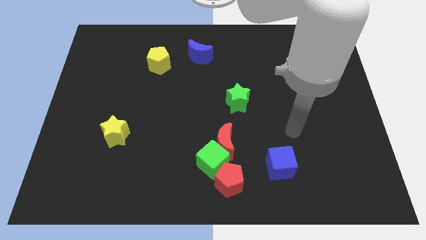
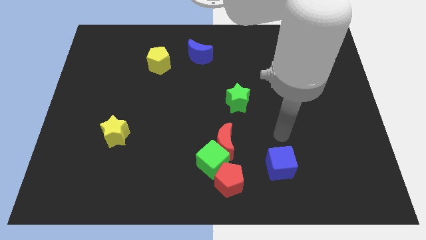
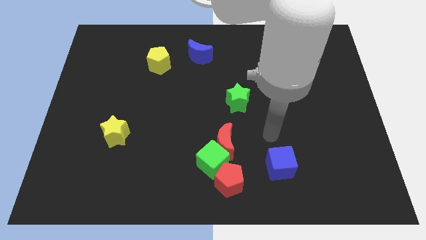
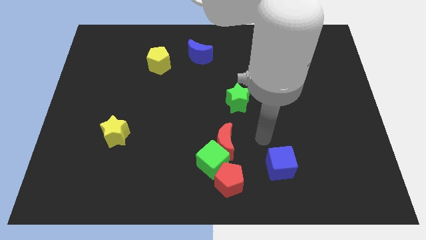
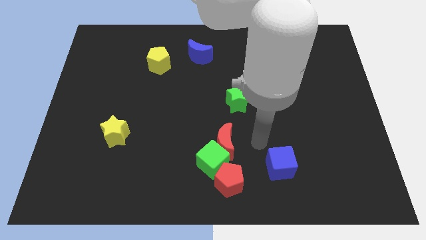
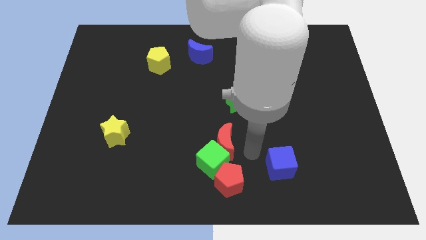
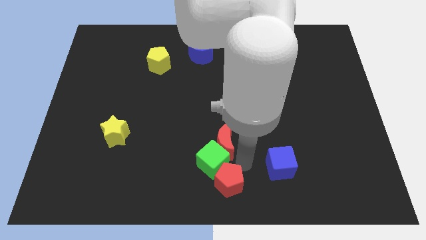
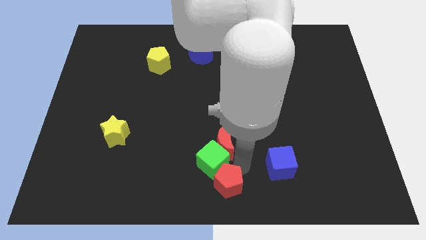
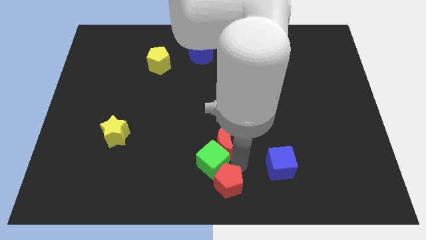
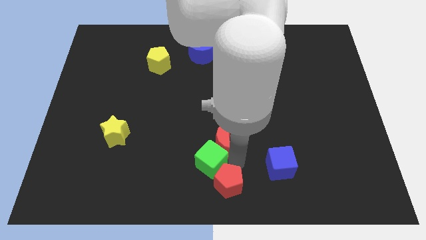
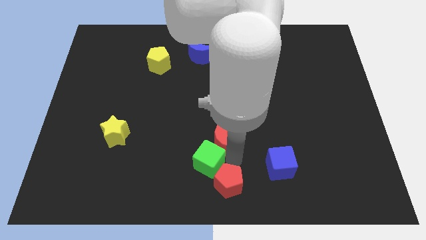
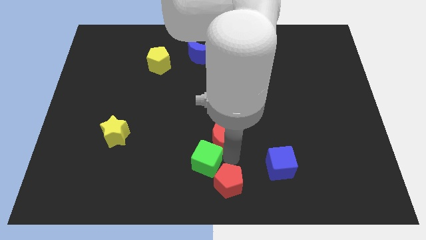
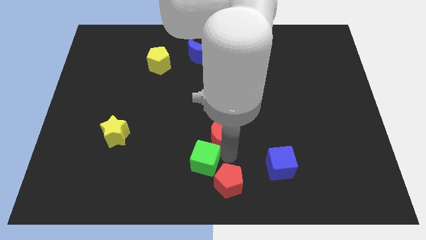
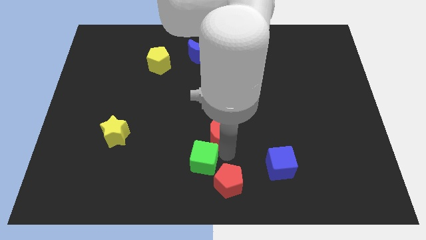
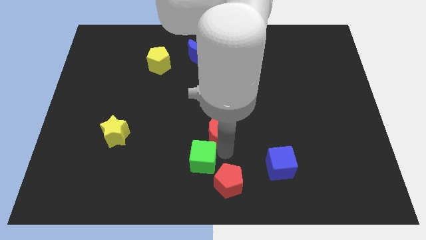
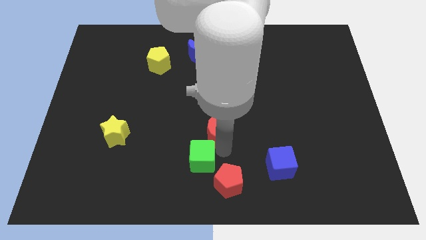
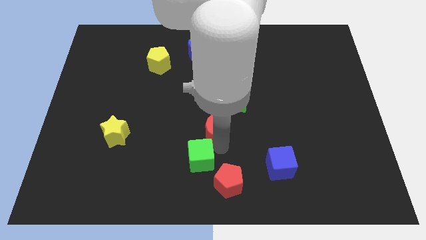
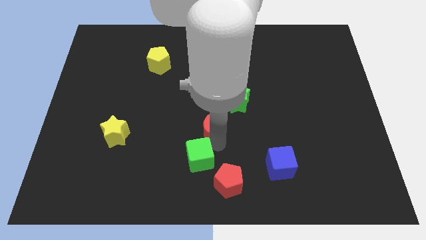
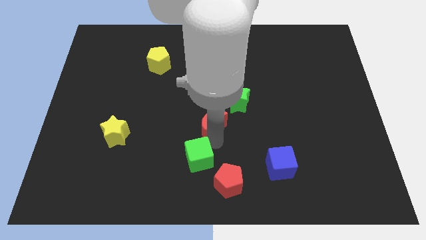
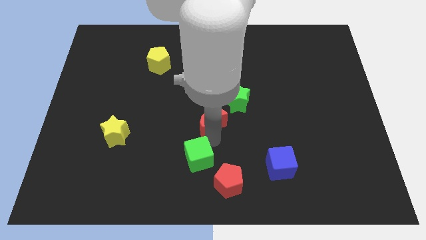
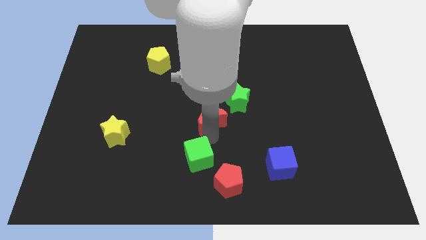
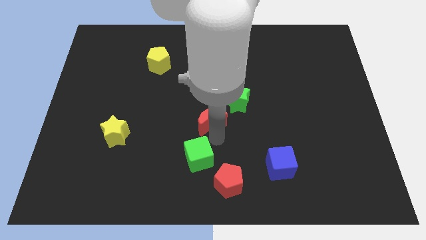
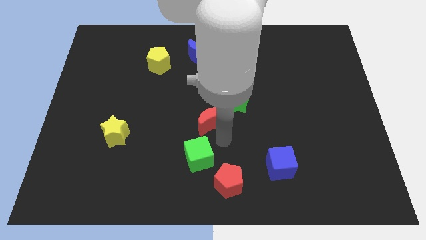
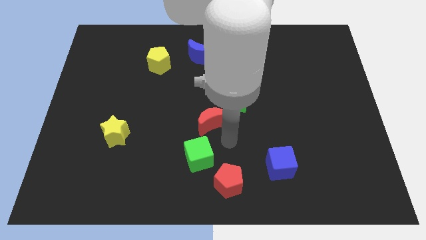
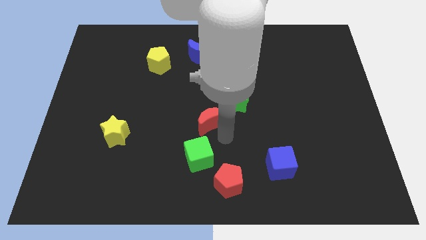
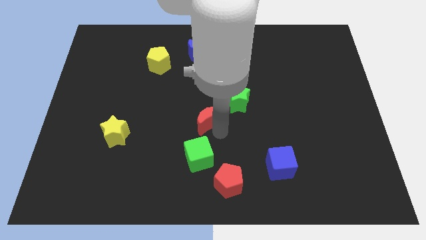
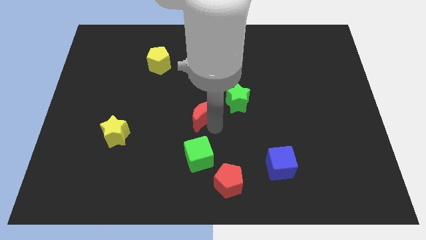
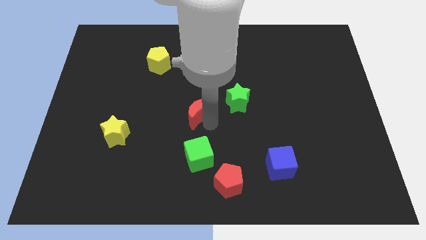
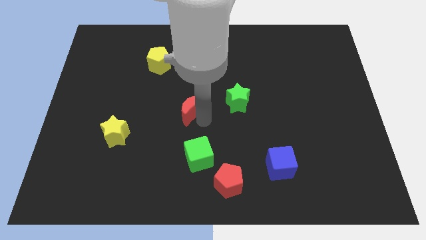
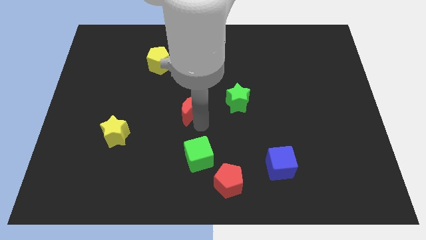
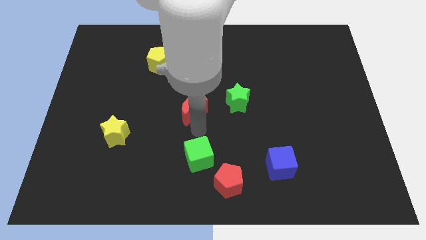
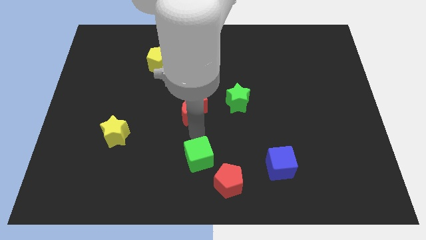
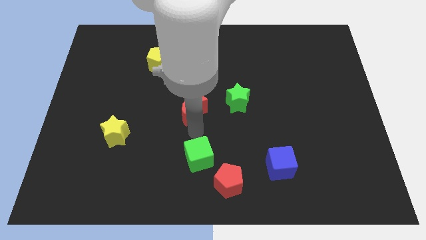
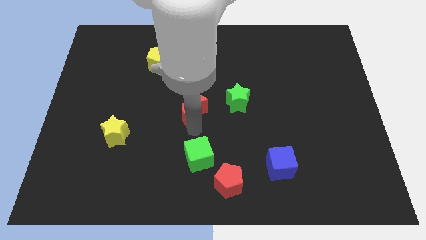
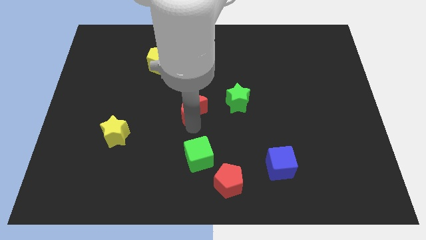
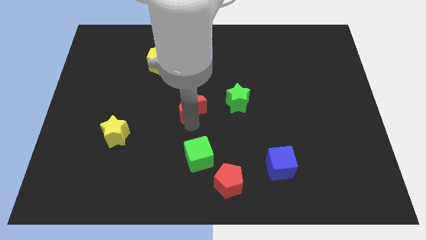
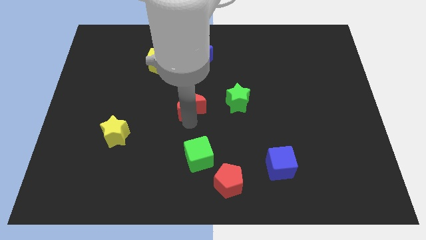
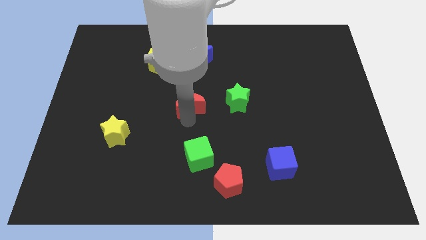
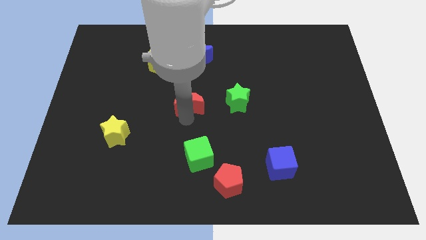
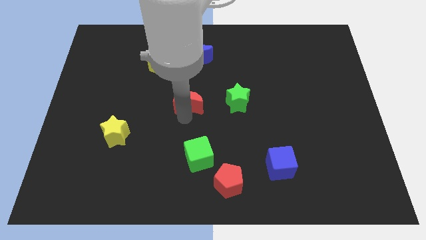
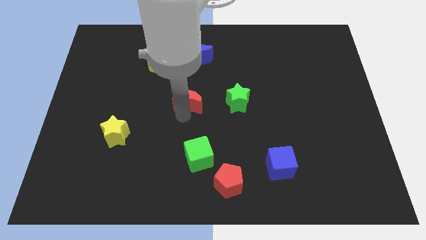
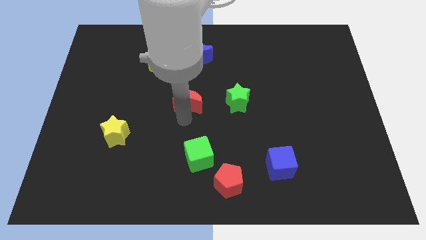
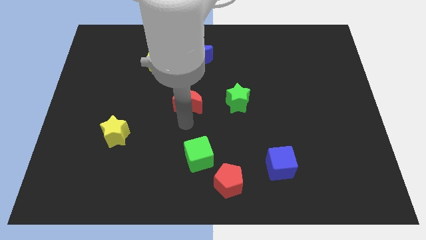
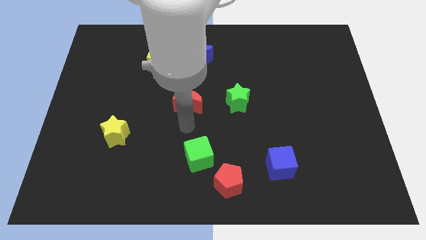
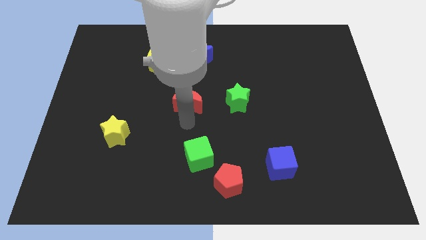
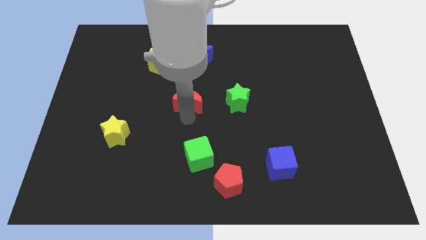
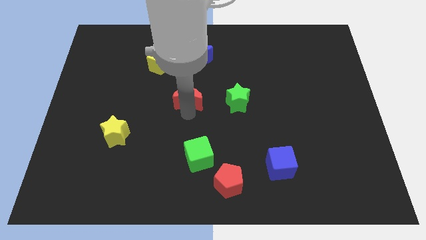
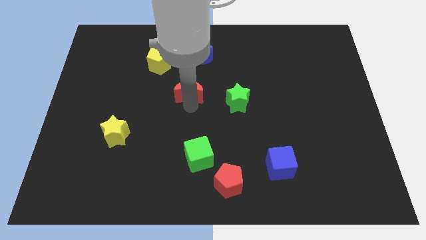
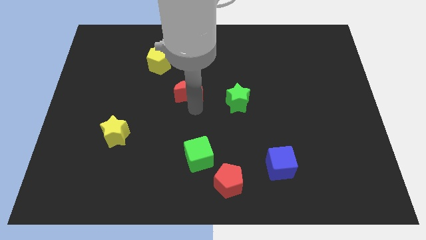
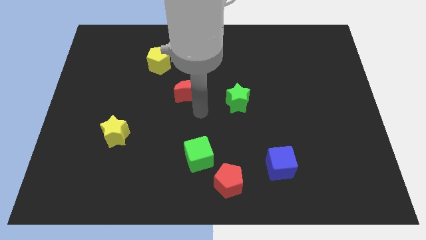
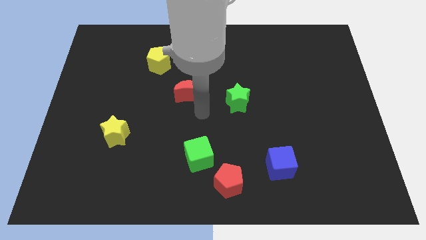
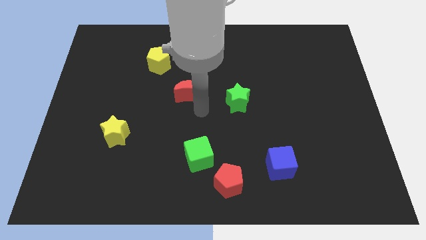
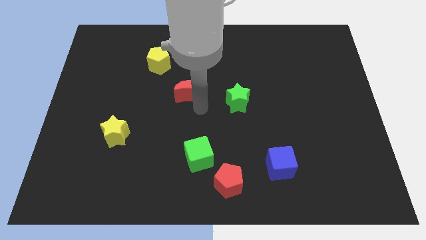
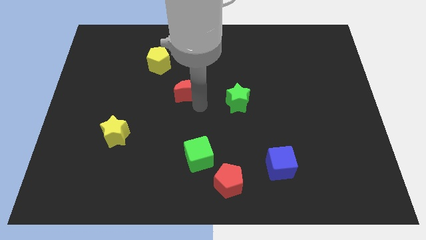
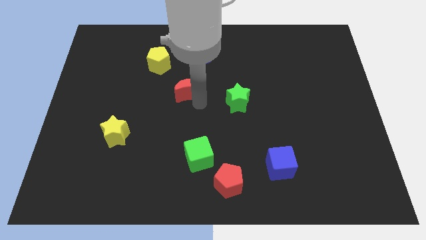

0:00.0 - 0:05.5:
put the red moon to the bottom right side of the yellow pentagon

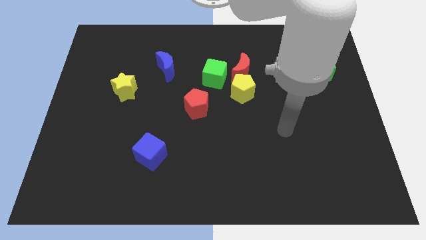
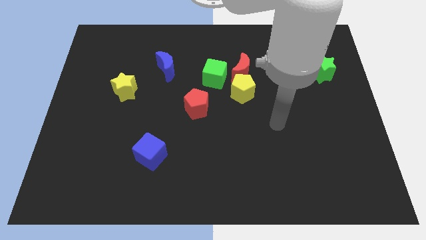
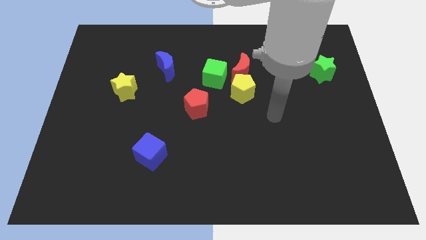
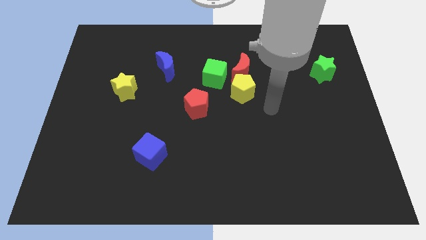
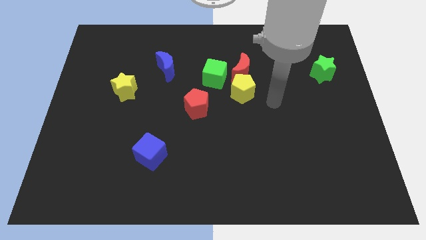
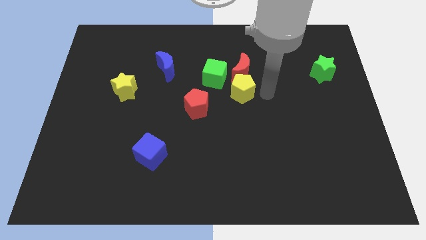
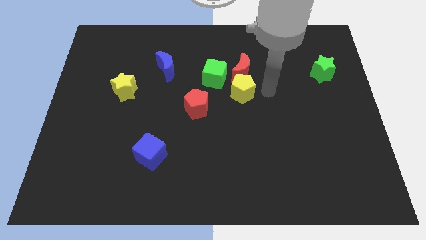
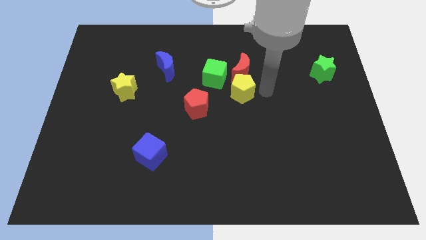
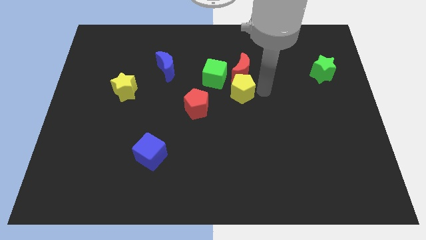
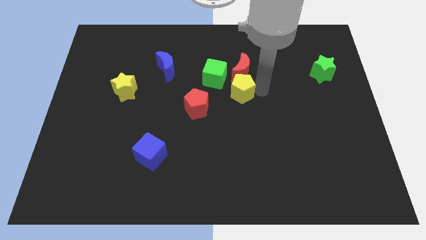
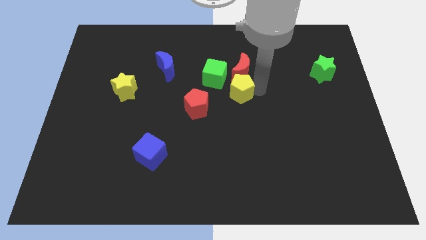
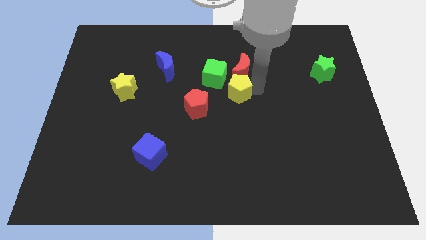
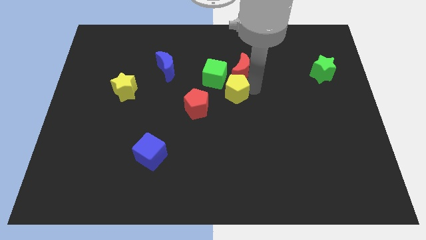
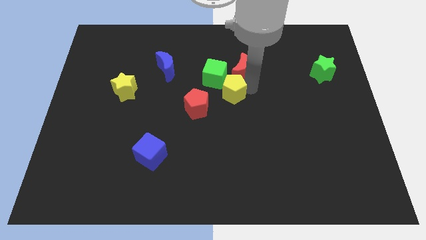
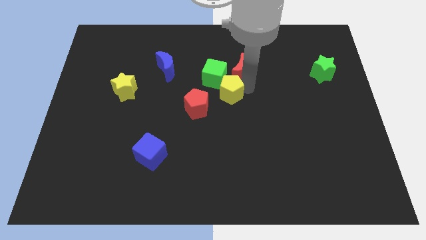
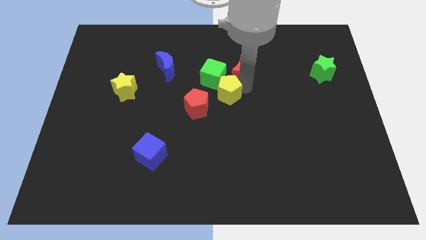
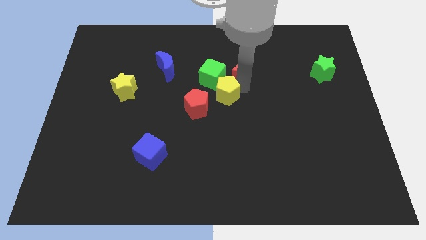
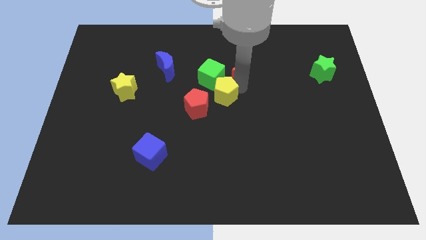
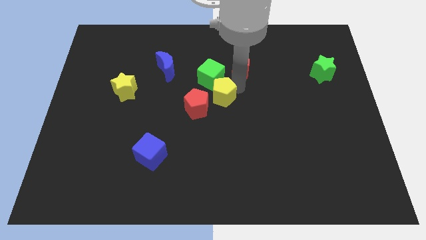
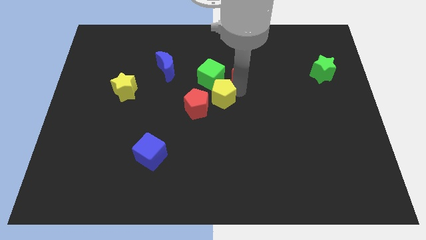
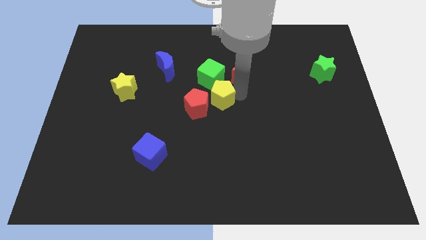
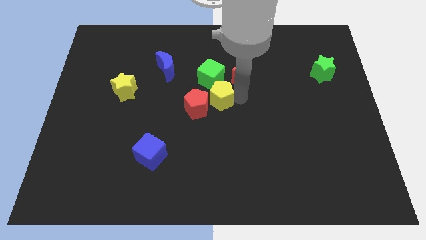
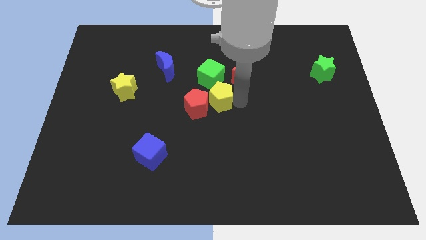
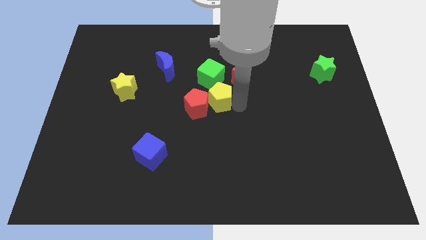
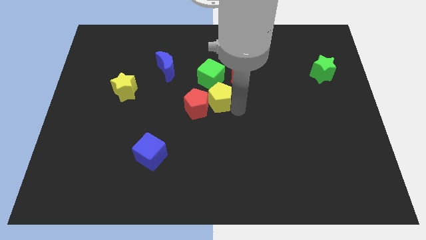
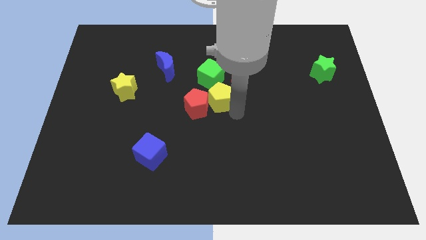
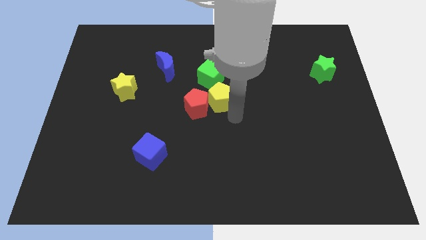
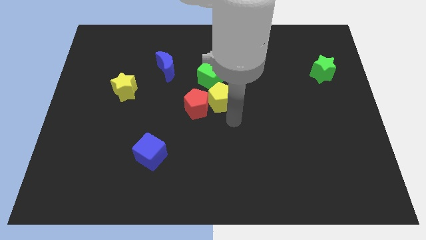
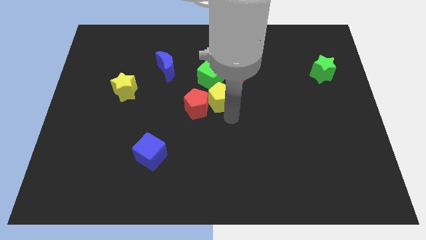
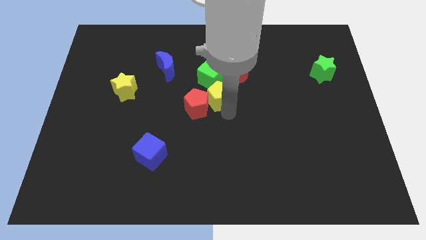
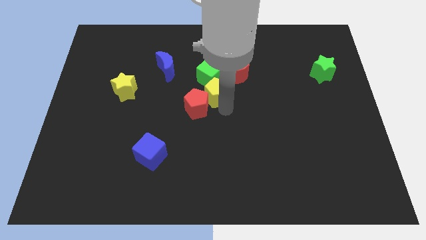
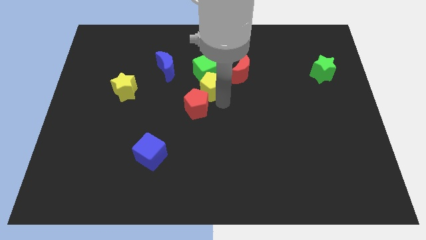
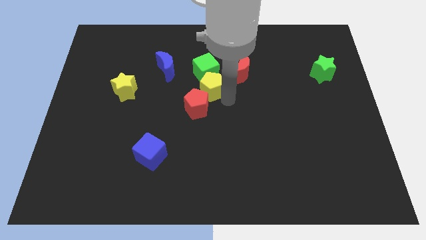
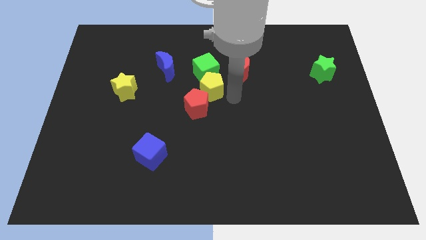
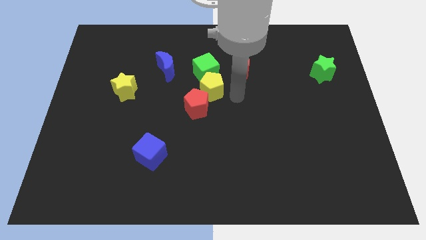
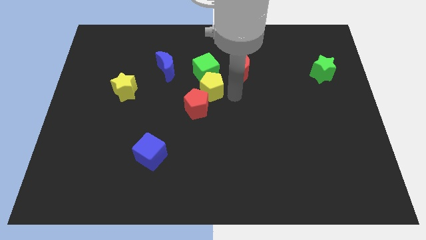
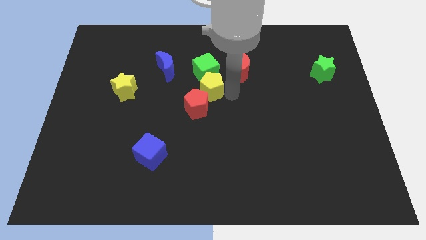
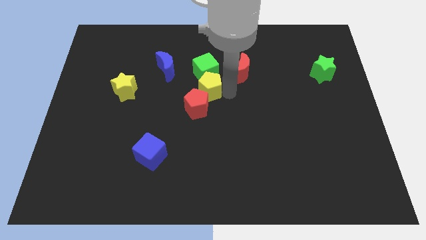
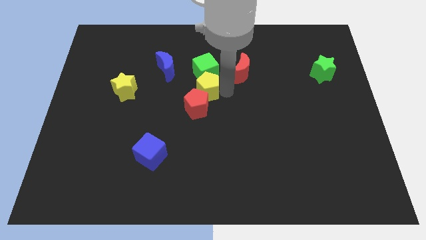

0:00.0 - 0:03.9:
push the yellow pentagon to the bottom right of the blue moon
